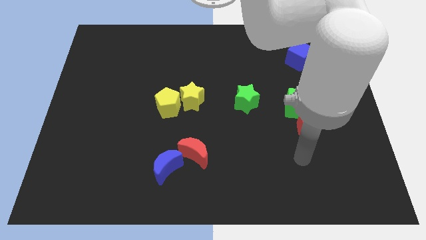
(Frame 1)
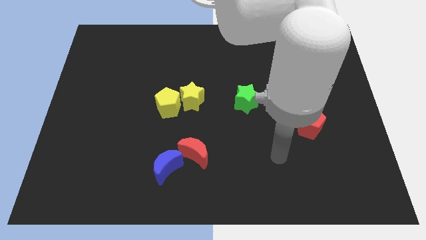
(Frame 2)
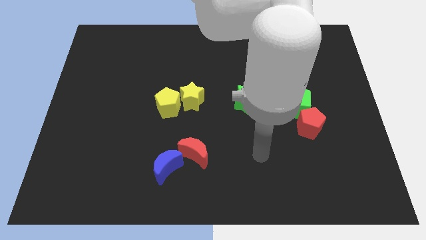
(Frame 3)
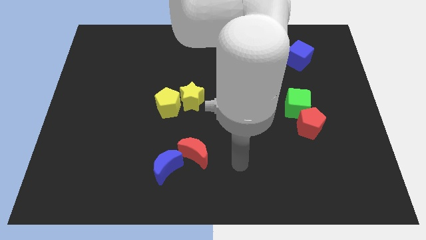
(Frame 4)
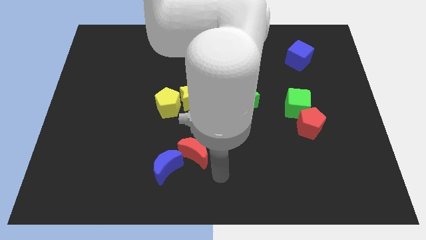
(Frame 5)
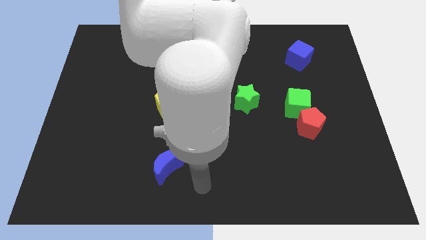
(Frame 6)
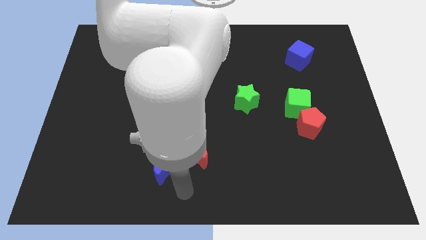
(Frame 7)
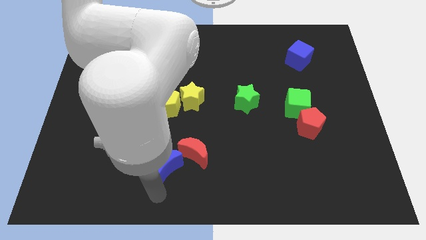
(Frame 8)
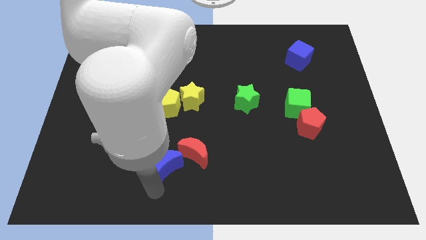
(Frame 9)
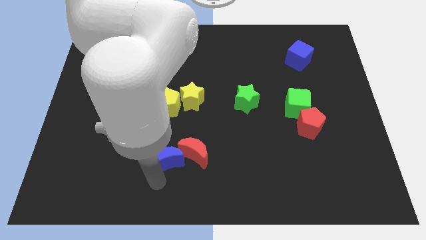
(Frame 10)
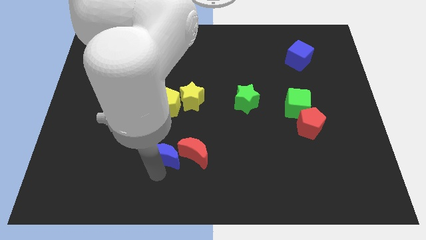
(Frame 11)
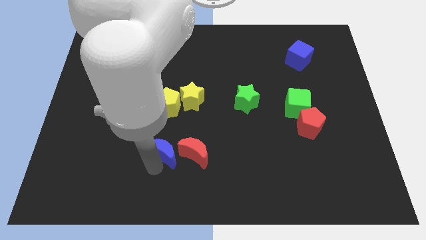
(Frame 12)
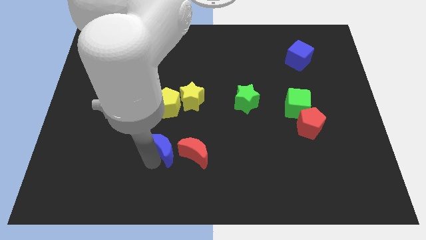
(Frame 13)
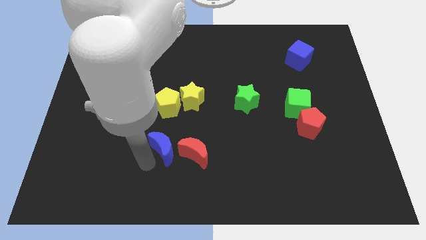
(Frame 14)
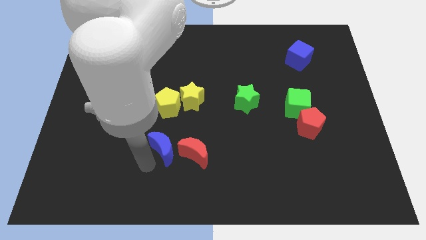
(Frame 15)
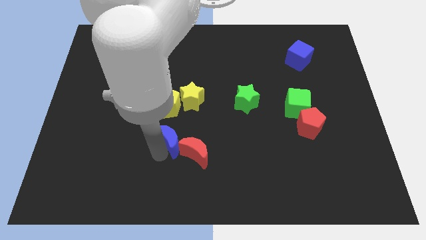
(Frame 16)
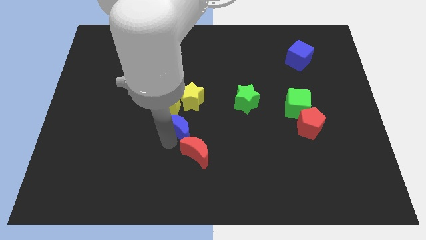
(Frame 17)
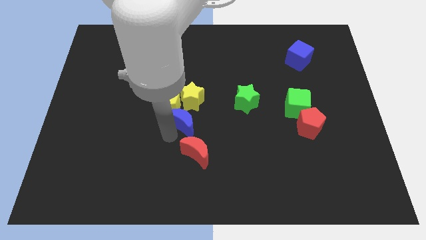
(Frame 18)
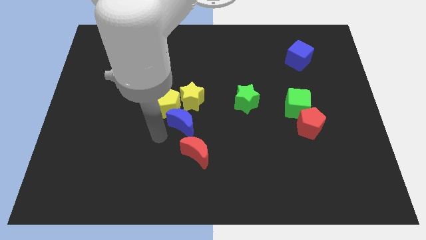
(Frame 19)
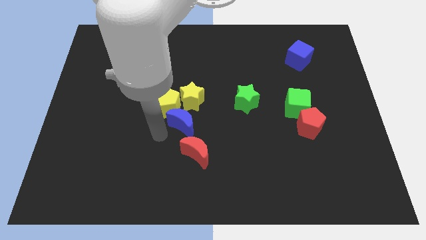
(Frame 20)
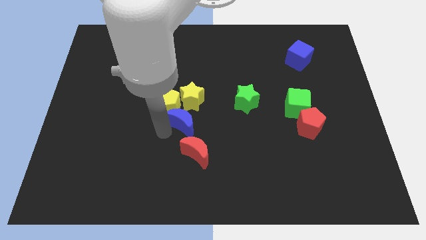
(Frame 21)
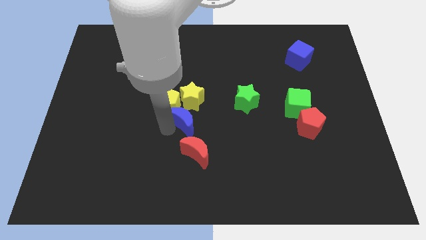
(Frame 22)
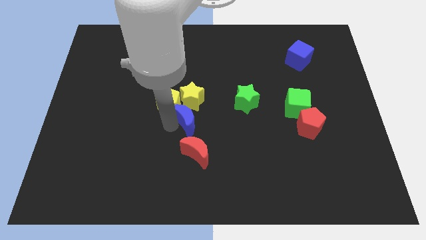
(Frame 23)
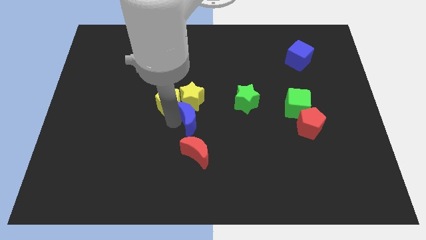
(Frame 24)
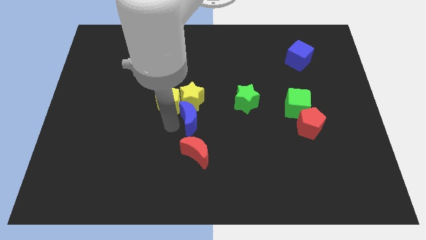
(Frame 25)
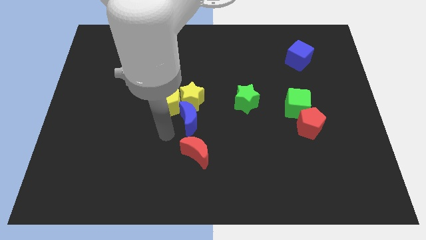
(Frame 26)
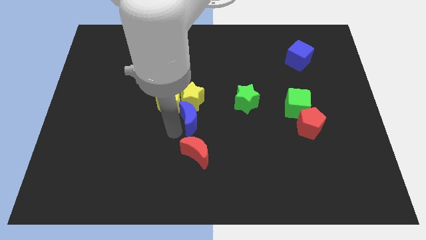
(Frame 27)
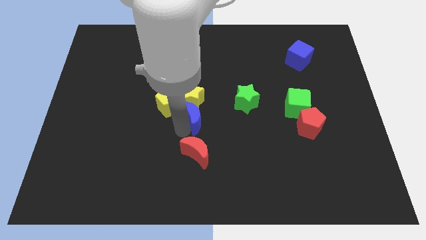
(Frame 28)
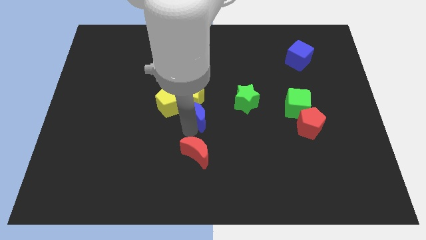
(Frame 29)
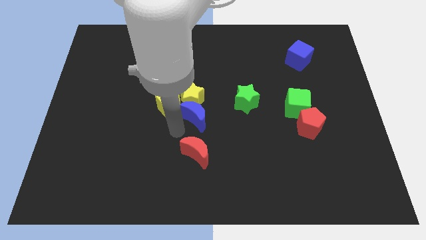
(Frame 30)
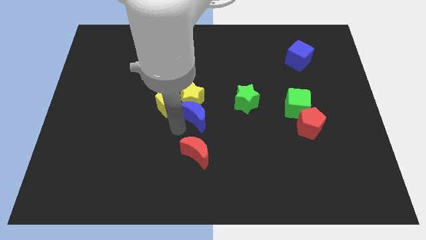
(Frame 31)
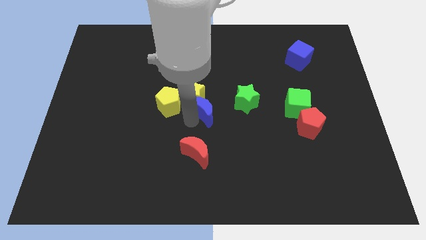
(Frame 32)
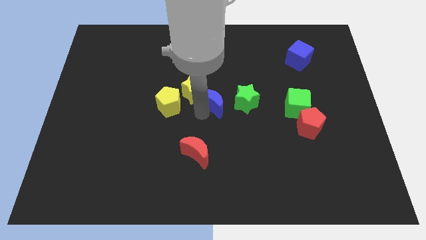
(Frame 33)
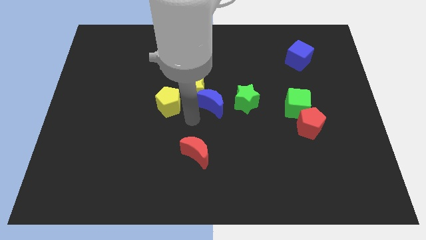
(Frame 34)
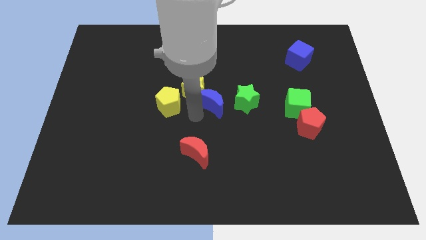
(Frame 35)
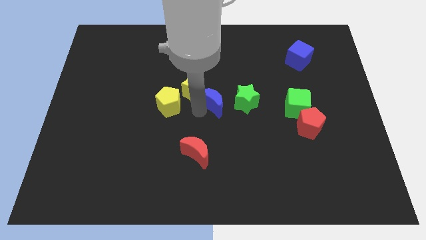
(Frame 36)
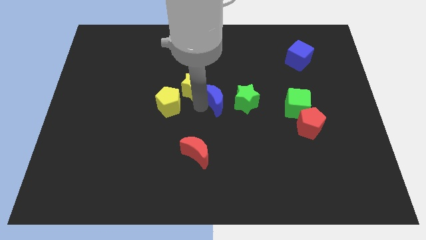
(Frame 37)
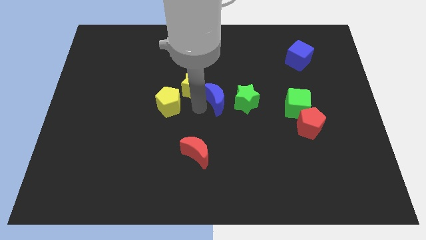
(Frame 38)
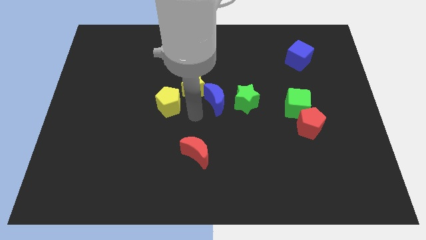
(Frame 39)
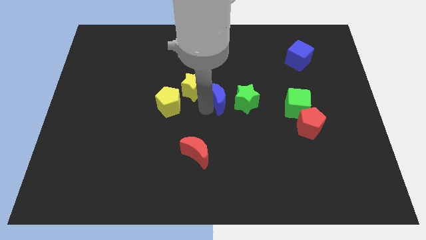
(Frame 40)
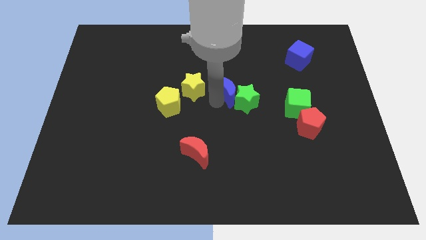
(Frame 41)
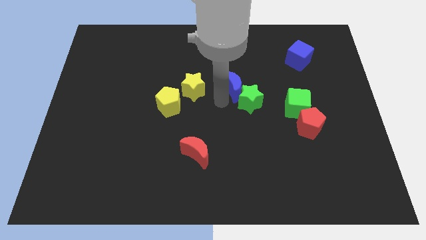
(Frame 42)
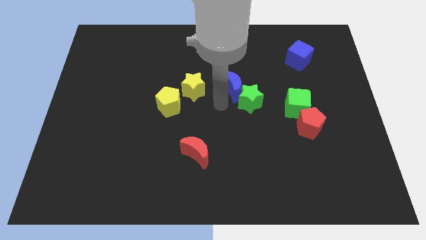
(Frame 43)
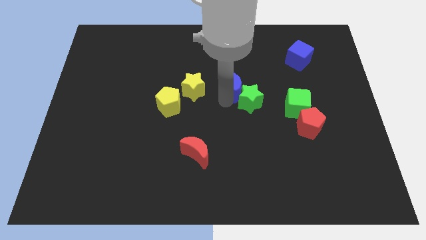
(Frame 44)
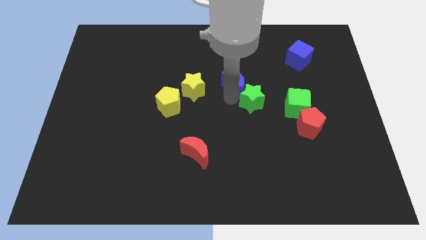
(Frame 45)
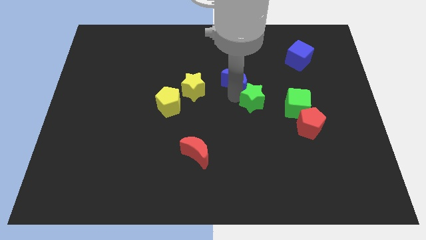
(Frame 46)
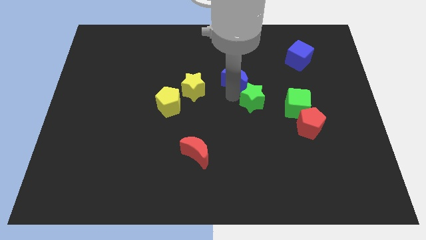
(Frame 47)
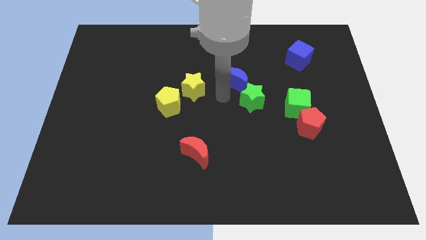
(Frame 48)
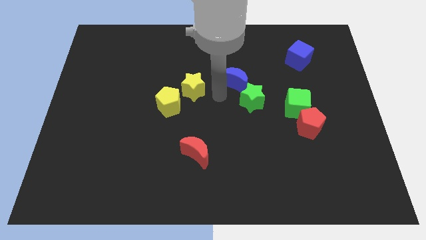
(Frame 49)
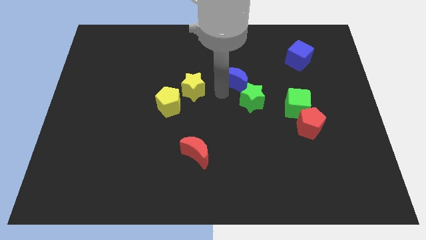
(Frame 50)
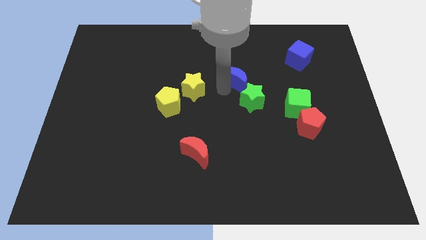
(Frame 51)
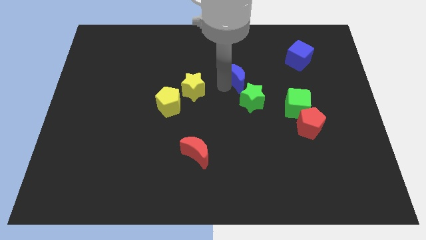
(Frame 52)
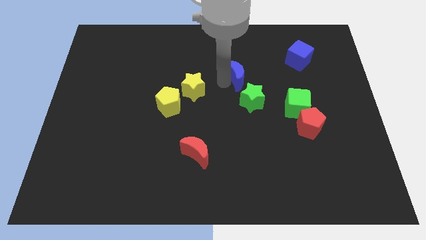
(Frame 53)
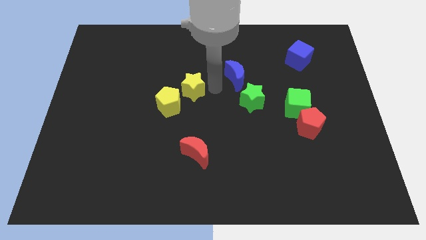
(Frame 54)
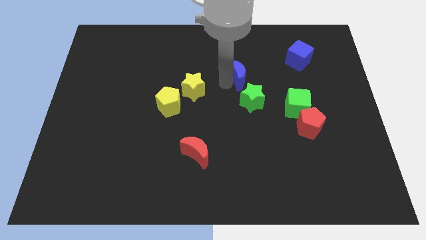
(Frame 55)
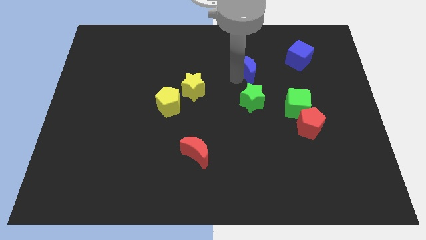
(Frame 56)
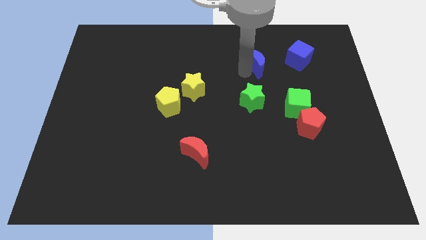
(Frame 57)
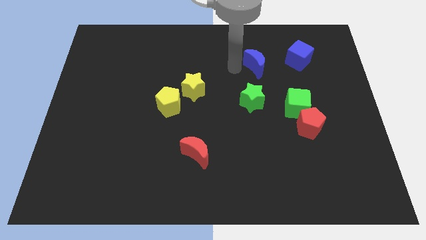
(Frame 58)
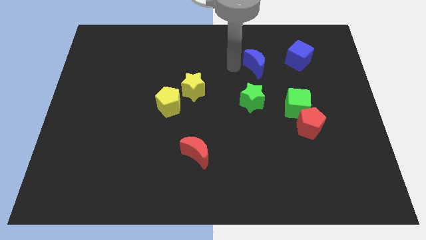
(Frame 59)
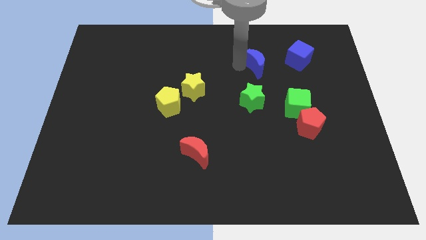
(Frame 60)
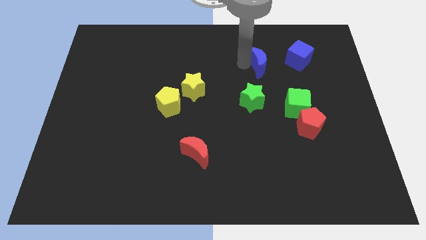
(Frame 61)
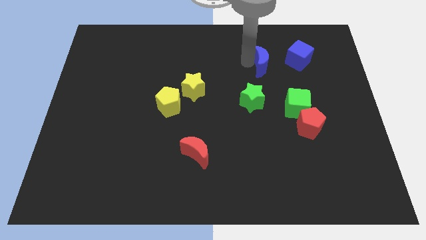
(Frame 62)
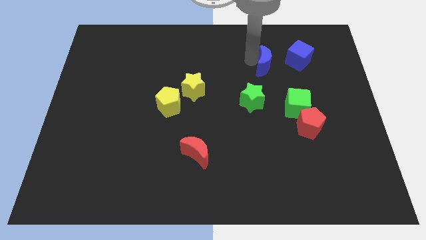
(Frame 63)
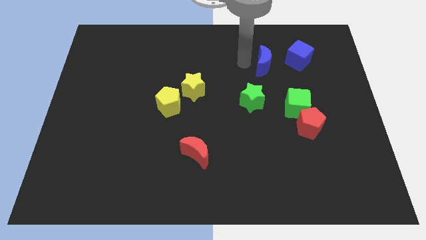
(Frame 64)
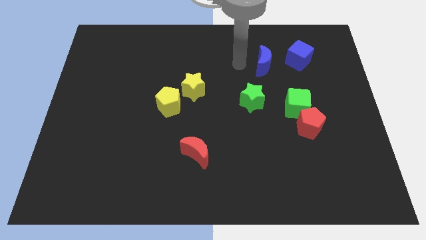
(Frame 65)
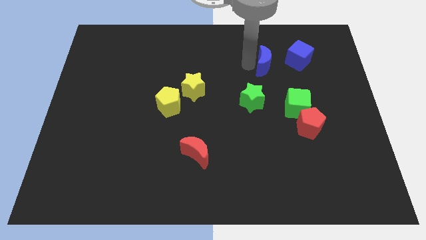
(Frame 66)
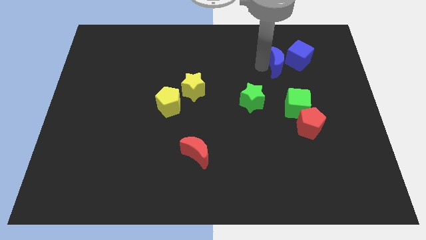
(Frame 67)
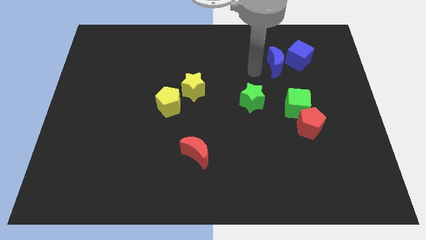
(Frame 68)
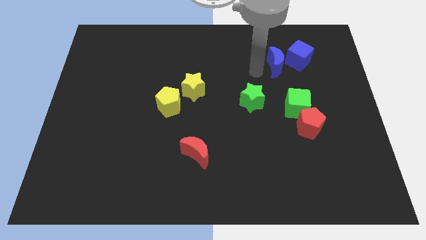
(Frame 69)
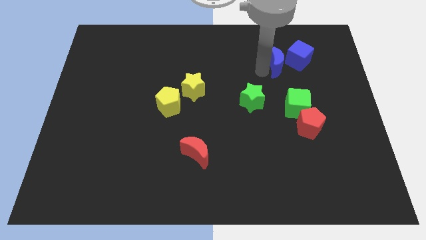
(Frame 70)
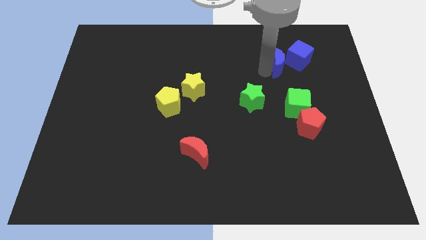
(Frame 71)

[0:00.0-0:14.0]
push the blue moon next to the blue cube

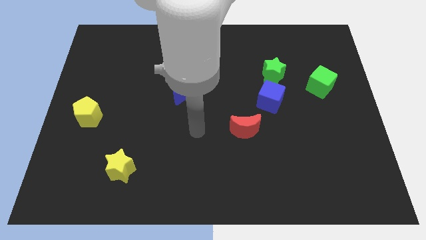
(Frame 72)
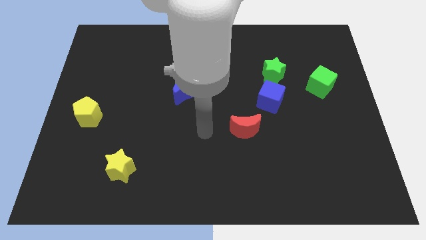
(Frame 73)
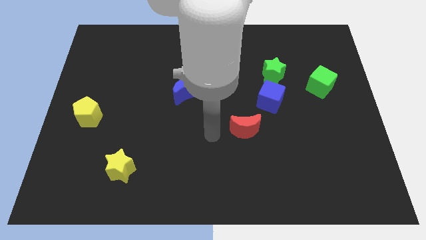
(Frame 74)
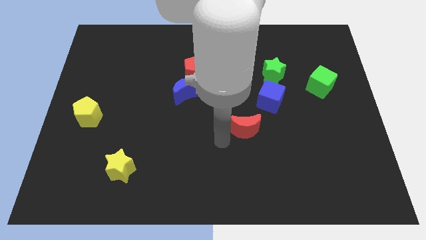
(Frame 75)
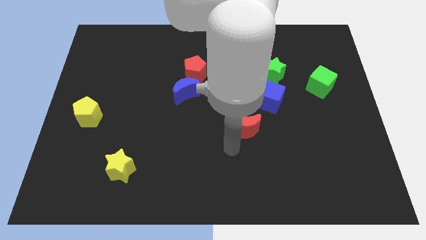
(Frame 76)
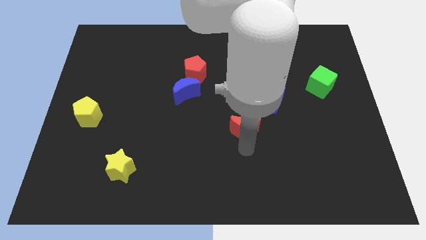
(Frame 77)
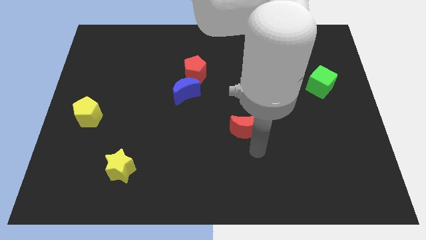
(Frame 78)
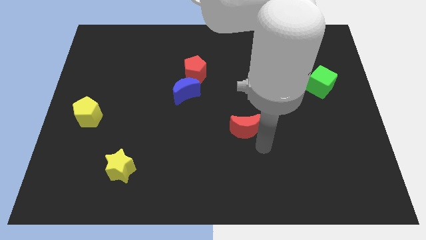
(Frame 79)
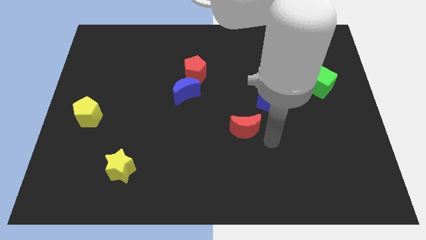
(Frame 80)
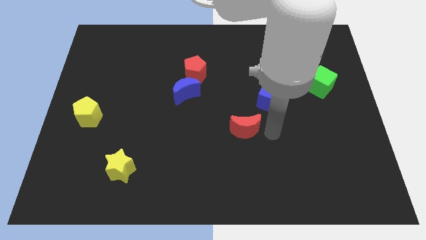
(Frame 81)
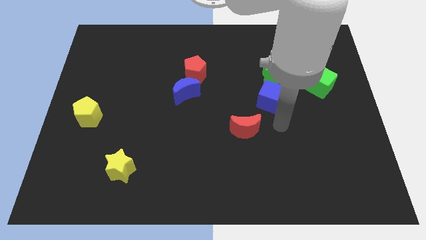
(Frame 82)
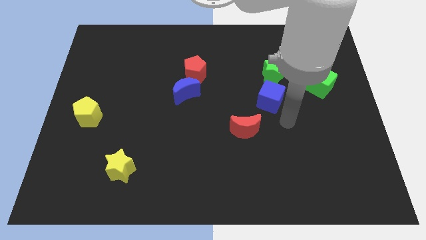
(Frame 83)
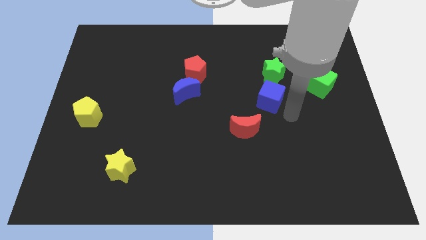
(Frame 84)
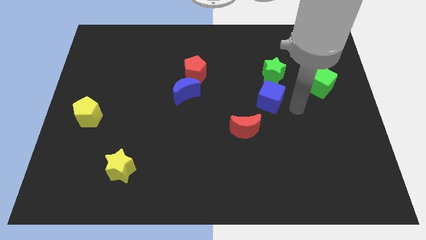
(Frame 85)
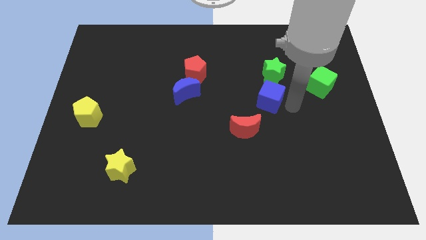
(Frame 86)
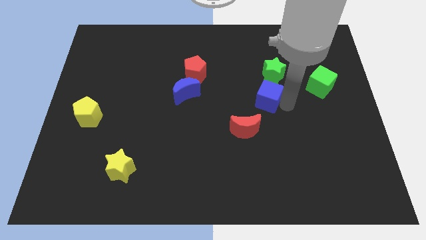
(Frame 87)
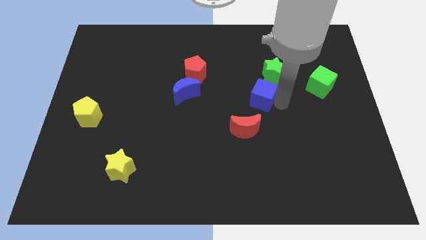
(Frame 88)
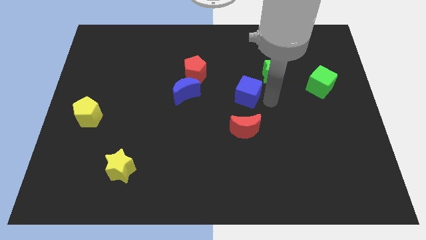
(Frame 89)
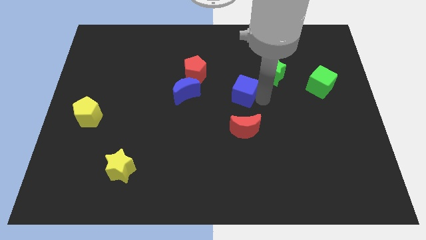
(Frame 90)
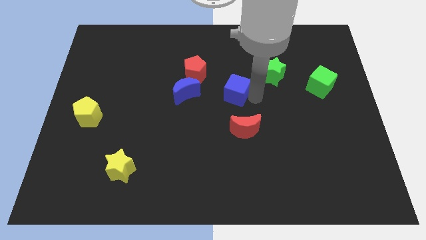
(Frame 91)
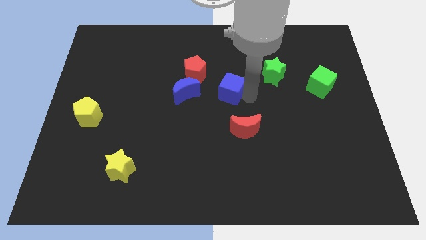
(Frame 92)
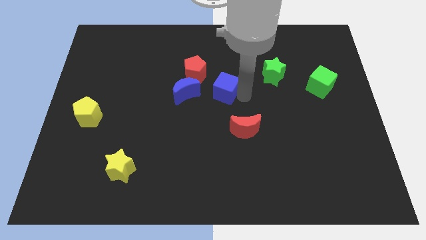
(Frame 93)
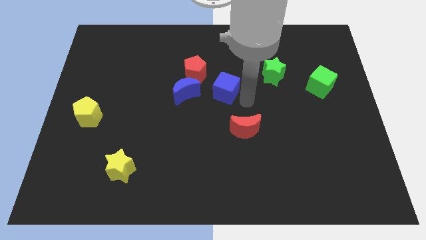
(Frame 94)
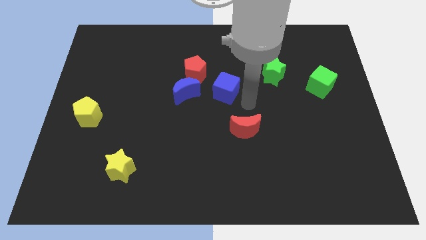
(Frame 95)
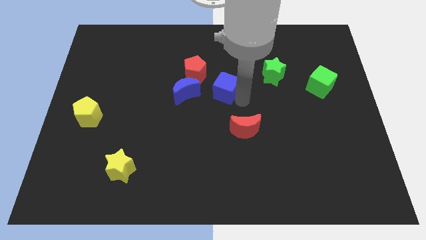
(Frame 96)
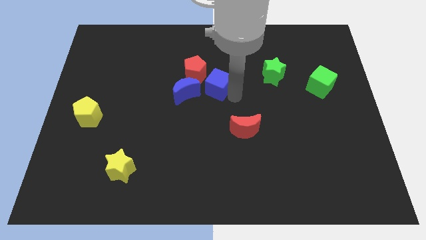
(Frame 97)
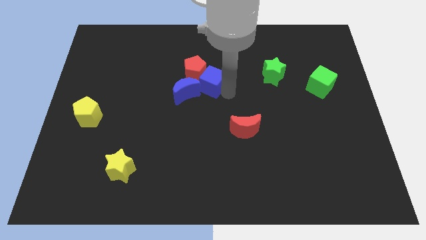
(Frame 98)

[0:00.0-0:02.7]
move the blue cube to the red pentagon
